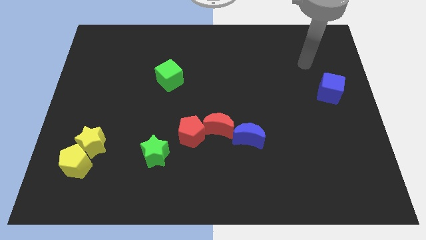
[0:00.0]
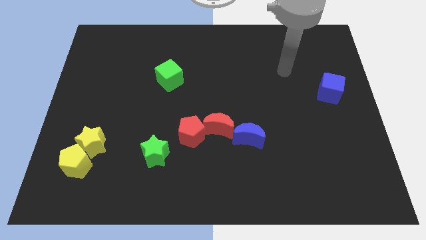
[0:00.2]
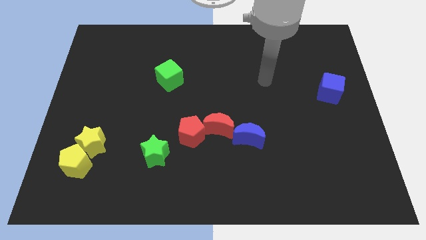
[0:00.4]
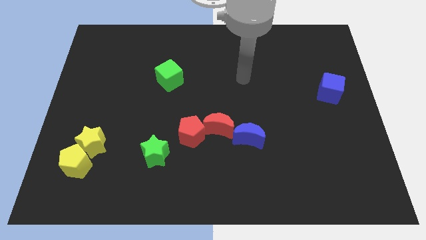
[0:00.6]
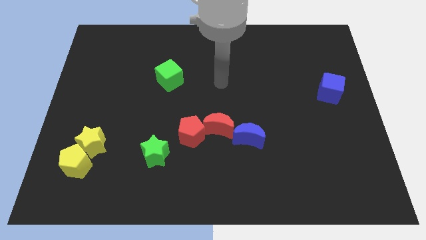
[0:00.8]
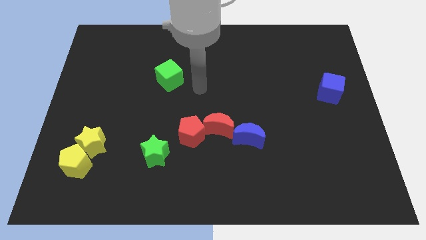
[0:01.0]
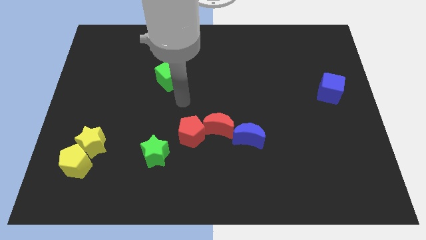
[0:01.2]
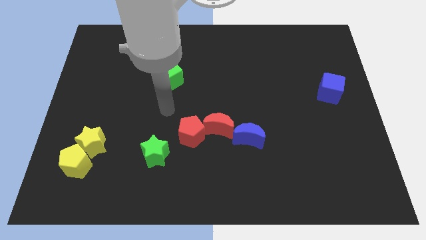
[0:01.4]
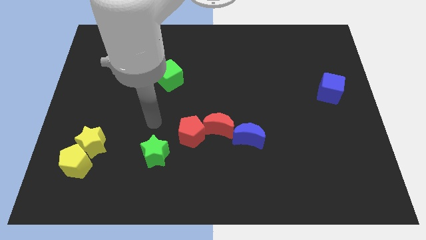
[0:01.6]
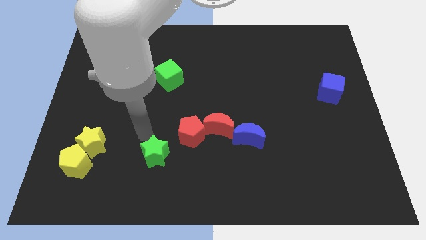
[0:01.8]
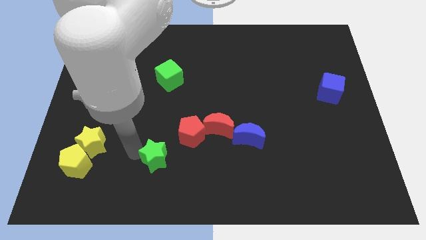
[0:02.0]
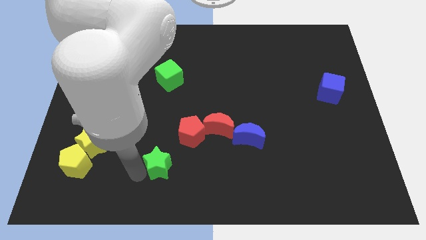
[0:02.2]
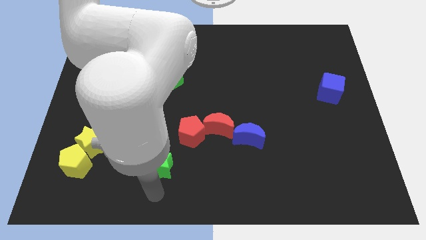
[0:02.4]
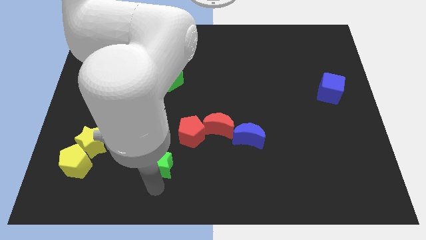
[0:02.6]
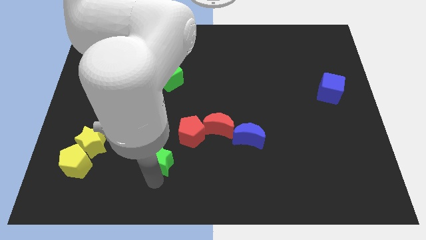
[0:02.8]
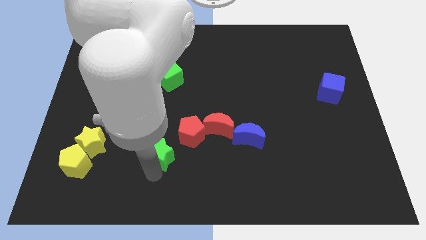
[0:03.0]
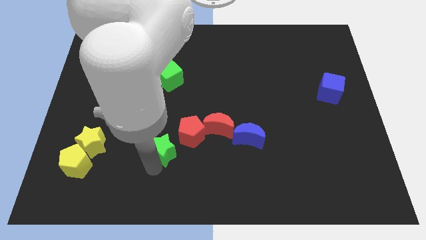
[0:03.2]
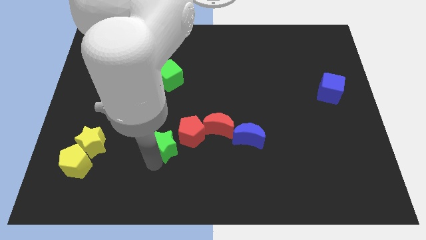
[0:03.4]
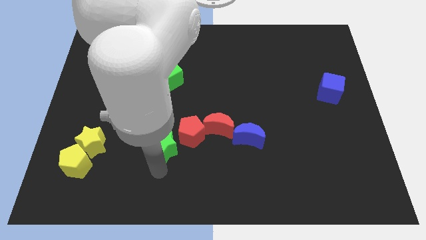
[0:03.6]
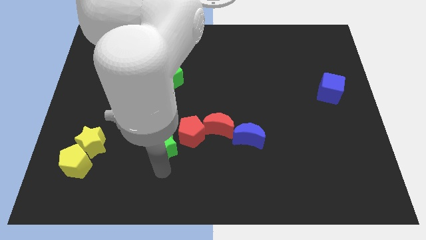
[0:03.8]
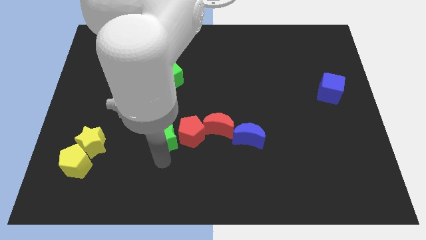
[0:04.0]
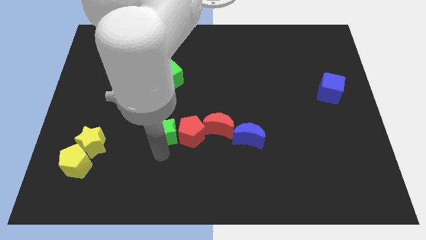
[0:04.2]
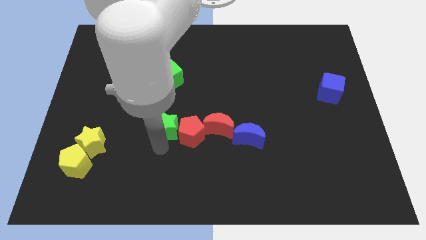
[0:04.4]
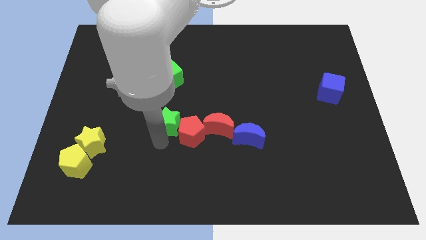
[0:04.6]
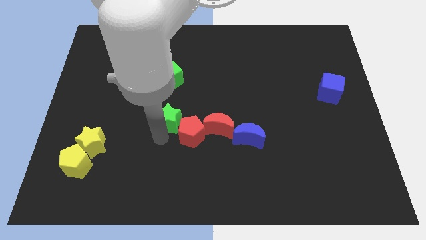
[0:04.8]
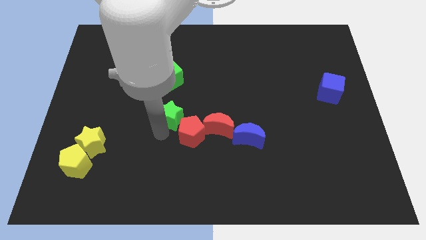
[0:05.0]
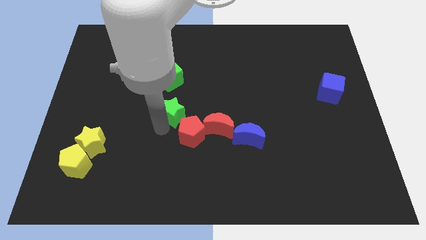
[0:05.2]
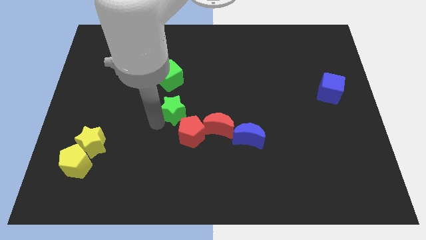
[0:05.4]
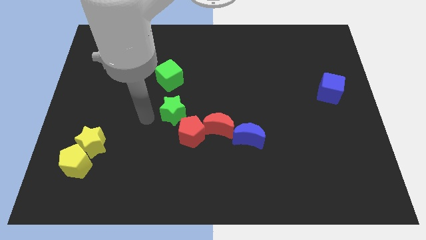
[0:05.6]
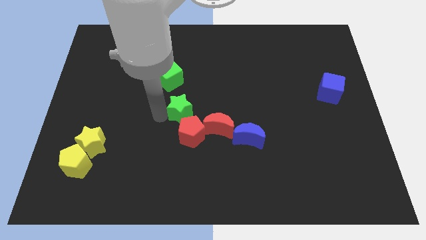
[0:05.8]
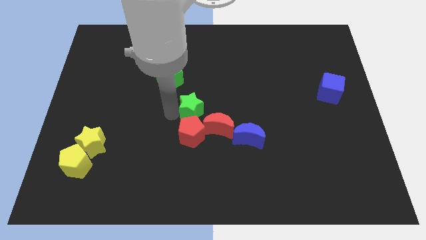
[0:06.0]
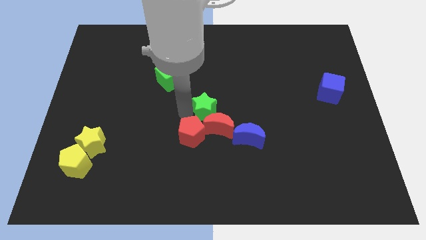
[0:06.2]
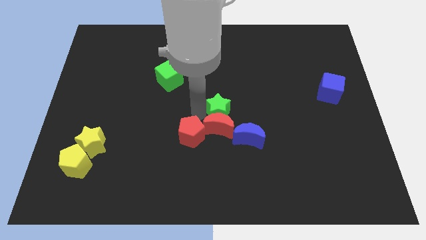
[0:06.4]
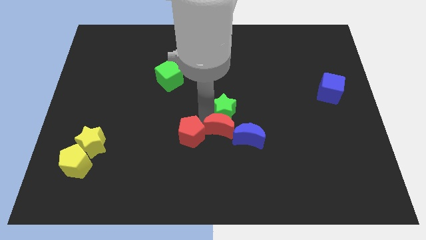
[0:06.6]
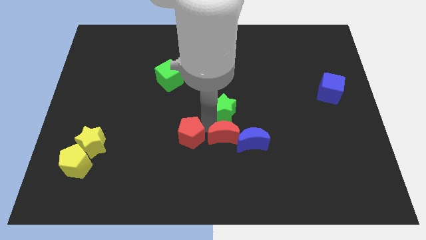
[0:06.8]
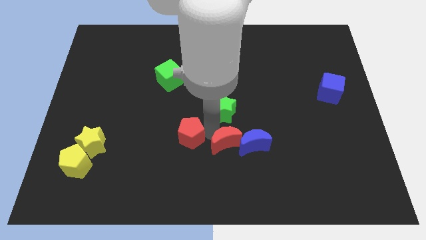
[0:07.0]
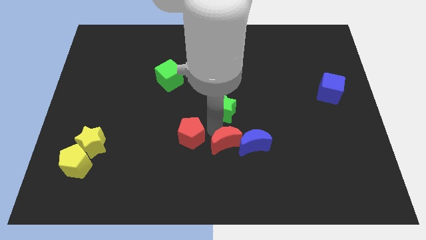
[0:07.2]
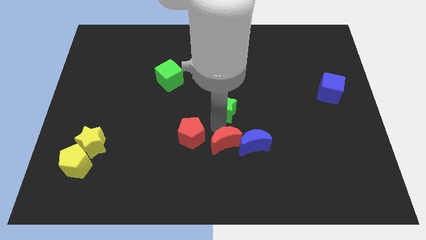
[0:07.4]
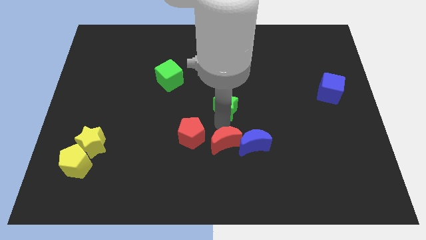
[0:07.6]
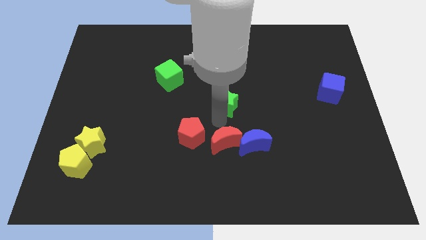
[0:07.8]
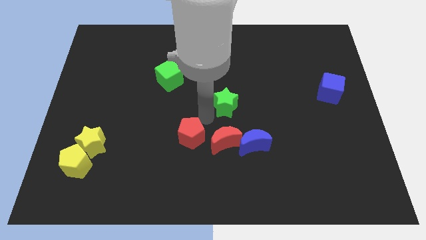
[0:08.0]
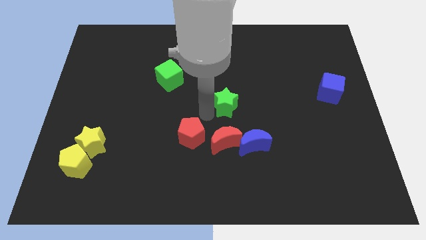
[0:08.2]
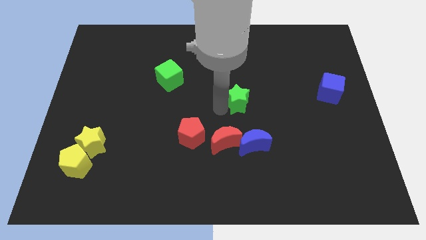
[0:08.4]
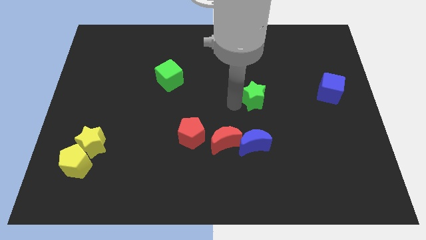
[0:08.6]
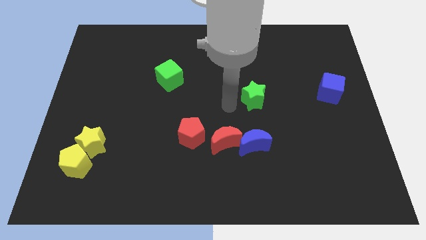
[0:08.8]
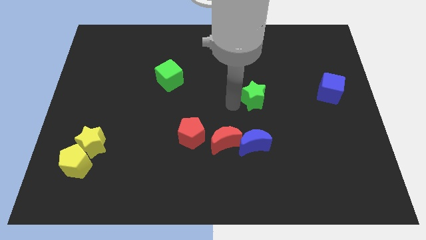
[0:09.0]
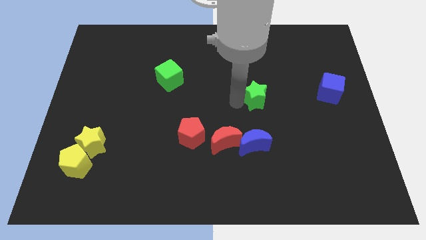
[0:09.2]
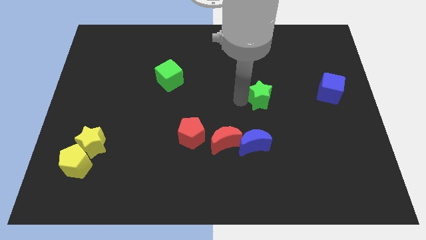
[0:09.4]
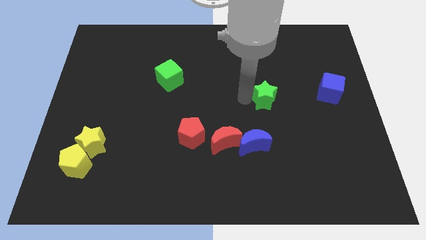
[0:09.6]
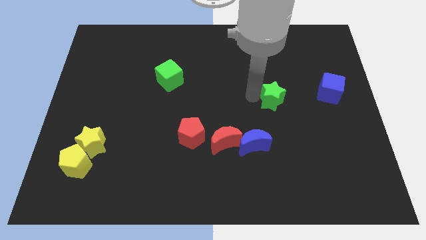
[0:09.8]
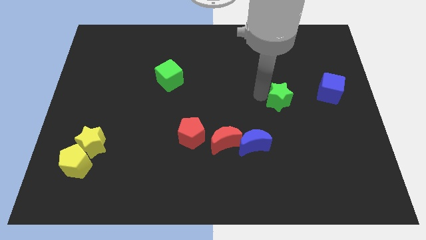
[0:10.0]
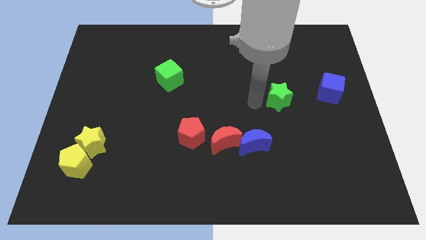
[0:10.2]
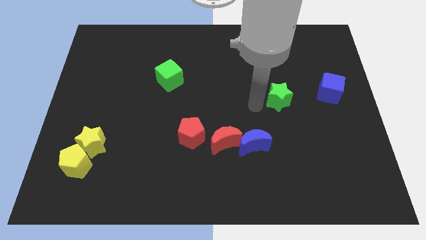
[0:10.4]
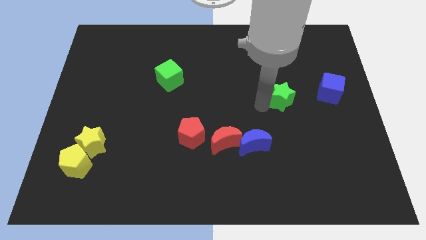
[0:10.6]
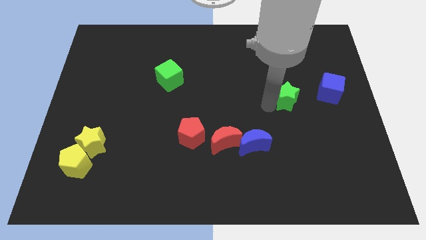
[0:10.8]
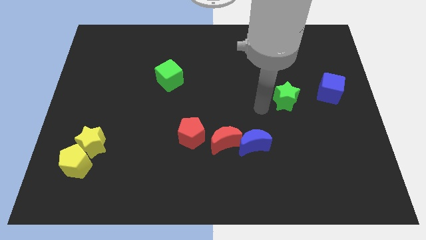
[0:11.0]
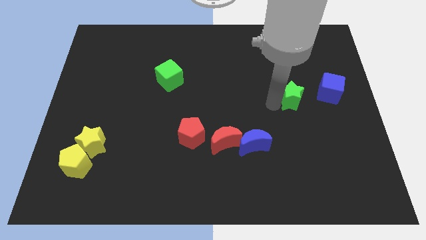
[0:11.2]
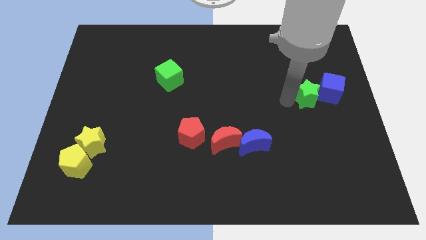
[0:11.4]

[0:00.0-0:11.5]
push the green star next to the blue cube

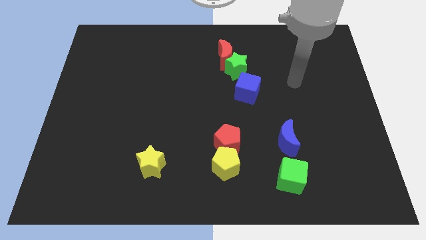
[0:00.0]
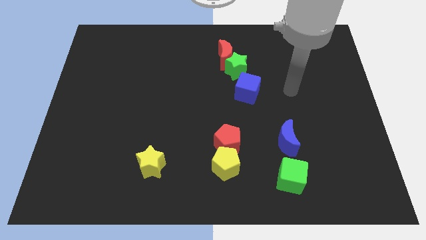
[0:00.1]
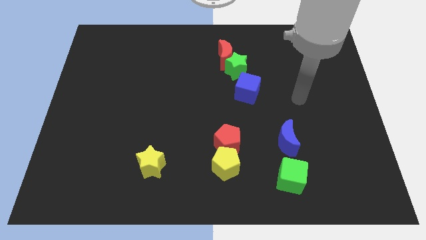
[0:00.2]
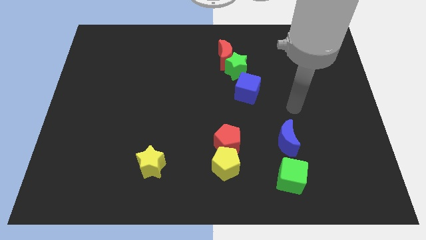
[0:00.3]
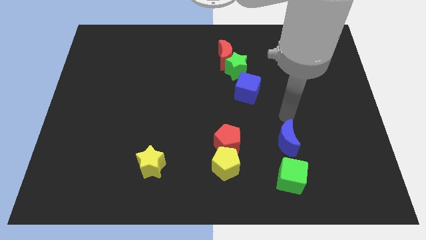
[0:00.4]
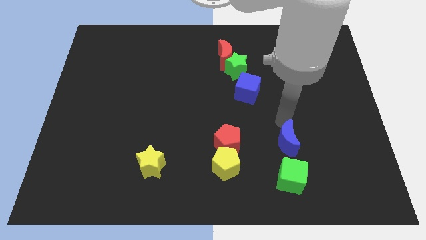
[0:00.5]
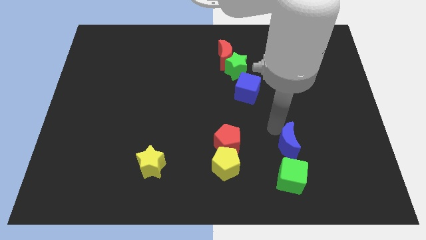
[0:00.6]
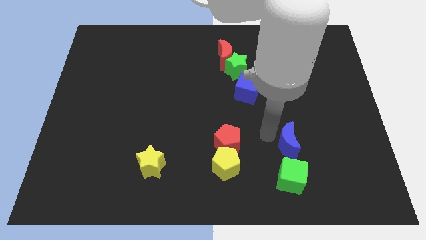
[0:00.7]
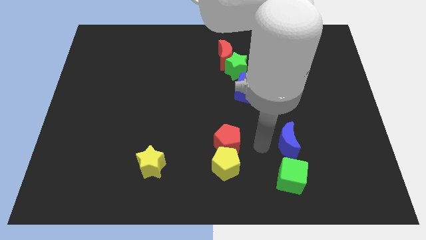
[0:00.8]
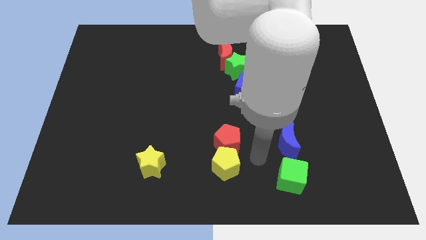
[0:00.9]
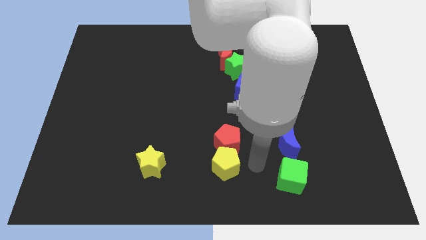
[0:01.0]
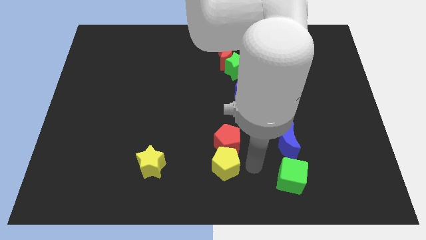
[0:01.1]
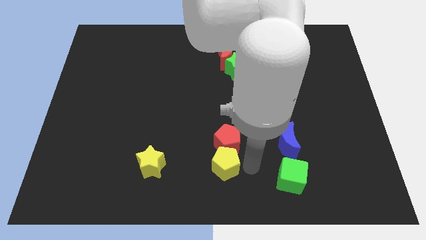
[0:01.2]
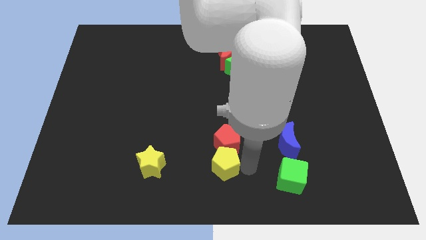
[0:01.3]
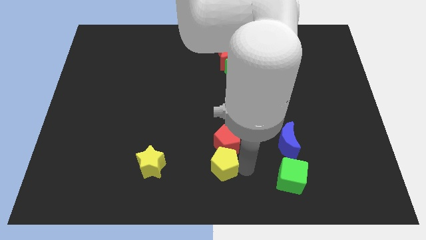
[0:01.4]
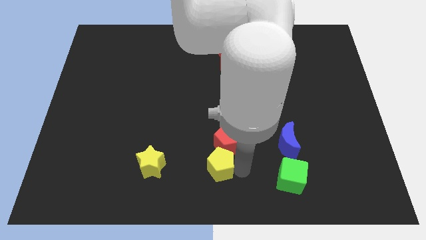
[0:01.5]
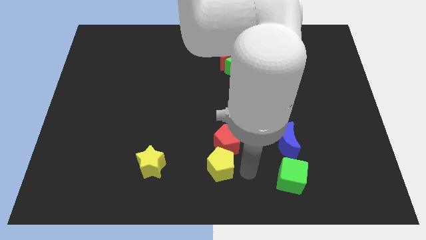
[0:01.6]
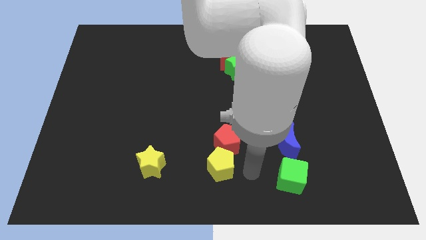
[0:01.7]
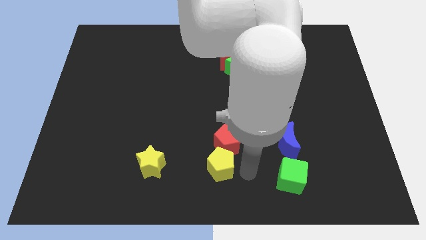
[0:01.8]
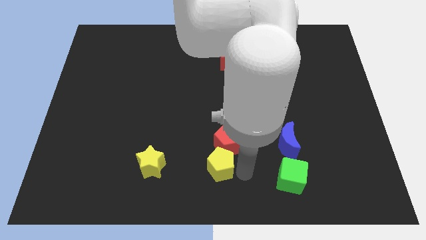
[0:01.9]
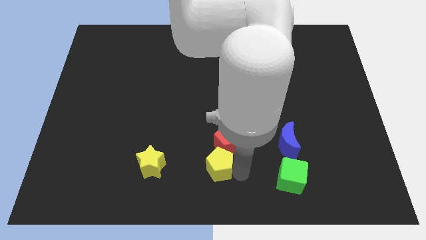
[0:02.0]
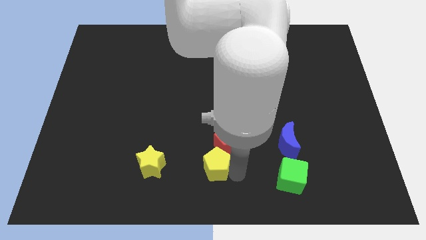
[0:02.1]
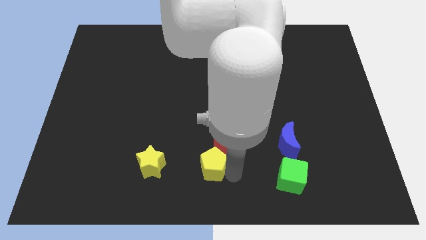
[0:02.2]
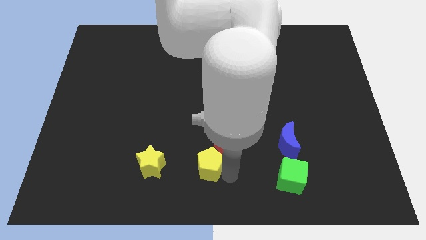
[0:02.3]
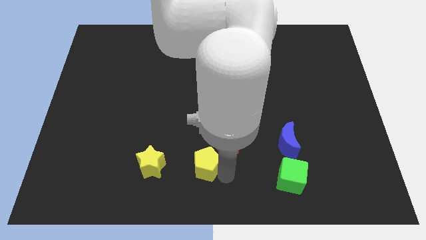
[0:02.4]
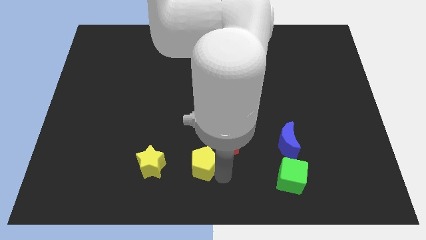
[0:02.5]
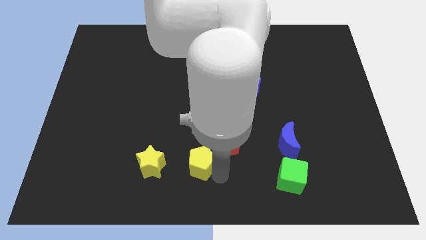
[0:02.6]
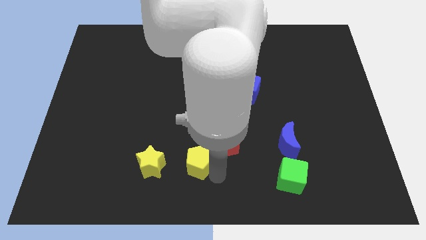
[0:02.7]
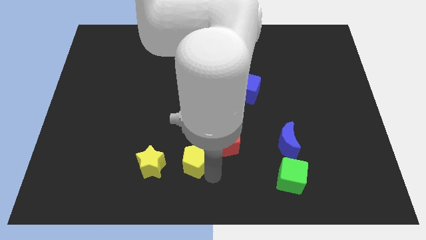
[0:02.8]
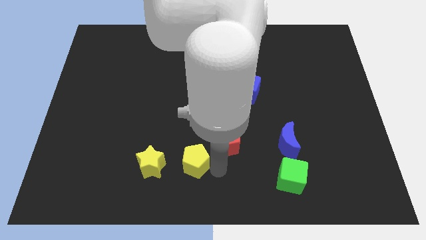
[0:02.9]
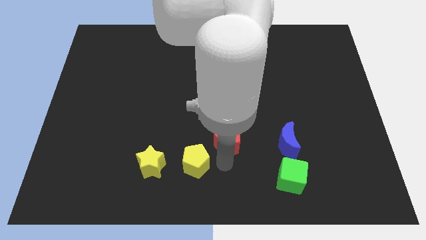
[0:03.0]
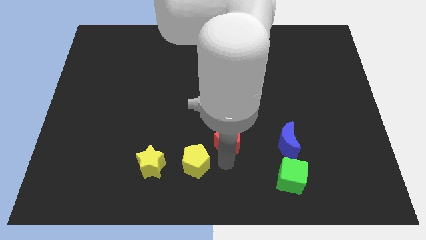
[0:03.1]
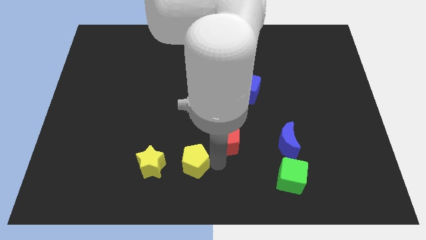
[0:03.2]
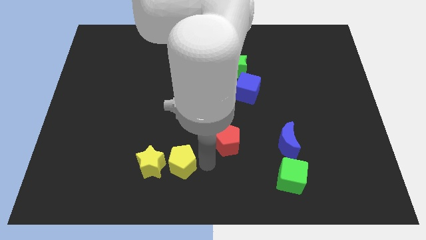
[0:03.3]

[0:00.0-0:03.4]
put the yellow pentagon to the yellow star
